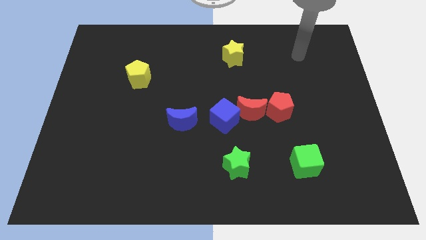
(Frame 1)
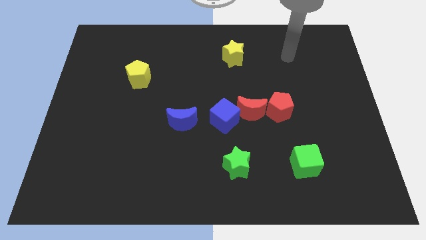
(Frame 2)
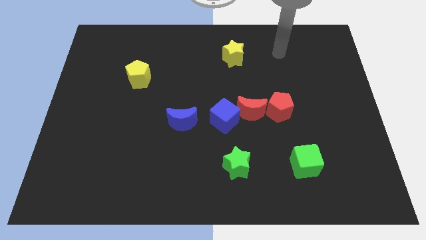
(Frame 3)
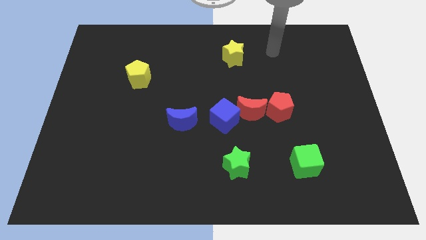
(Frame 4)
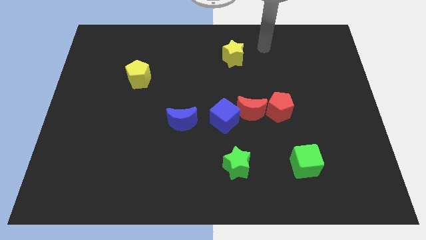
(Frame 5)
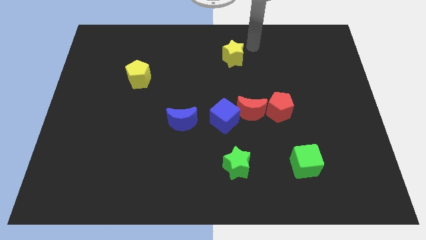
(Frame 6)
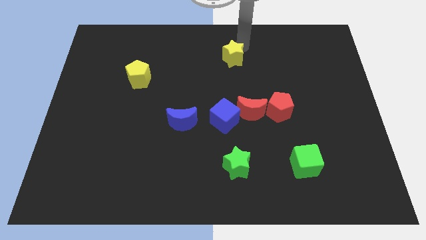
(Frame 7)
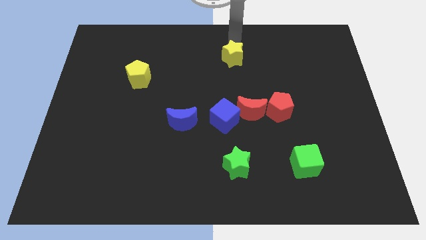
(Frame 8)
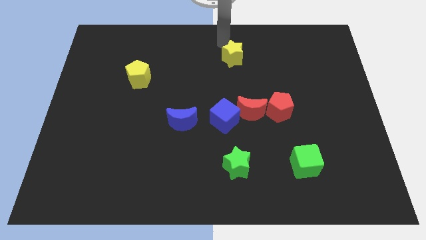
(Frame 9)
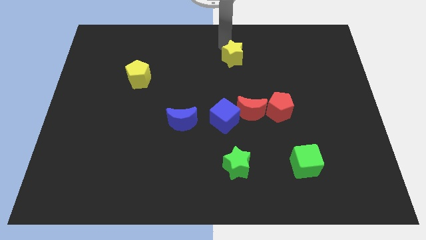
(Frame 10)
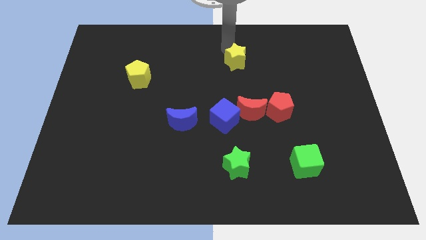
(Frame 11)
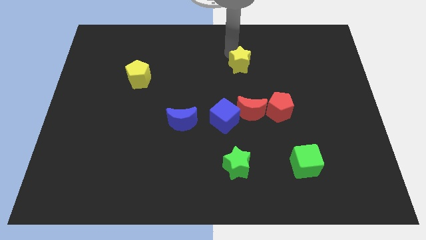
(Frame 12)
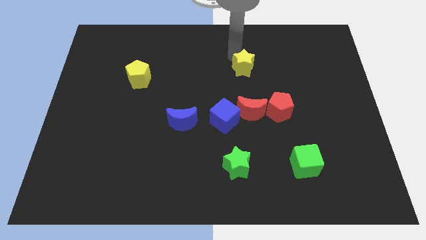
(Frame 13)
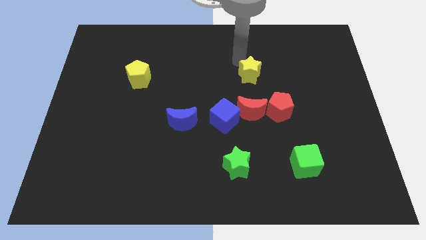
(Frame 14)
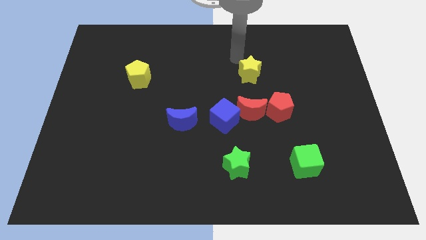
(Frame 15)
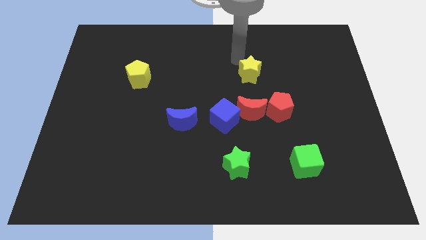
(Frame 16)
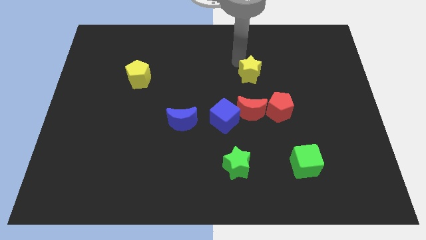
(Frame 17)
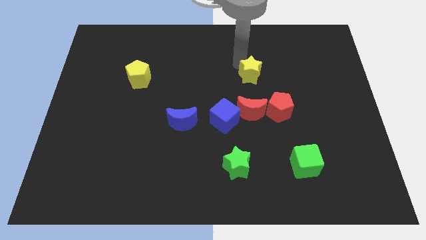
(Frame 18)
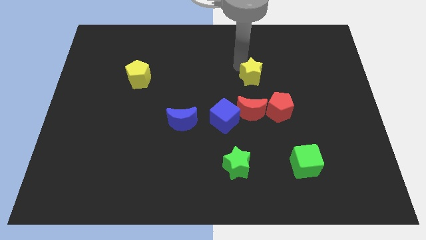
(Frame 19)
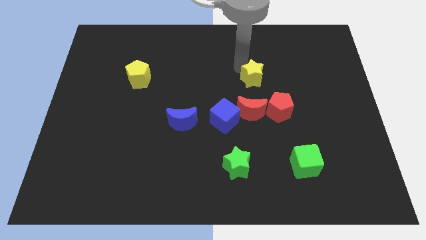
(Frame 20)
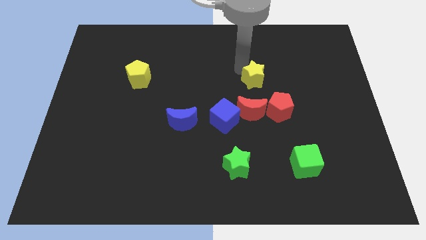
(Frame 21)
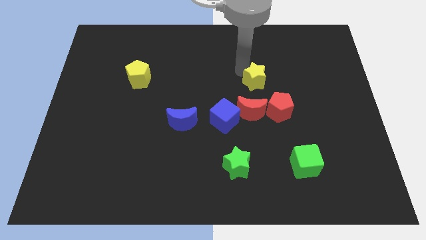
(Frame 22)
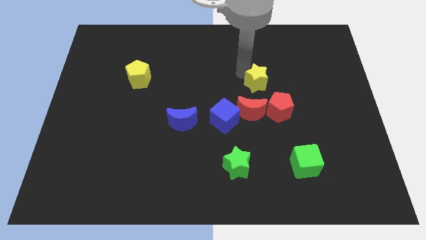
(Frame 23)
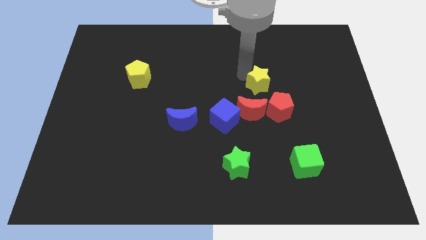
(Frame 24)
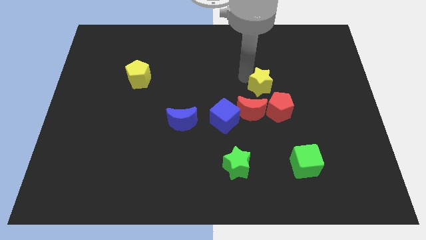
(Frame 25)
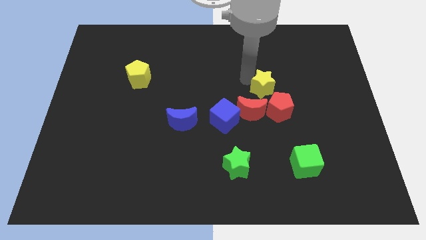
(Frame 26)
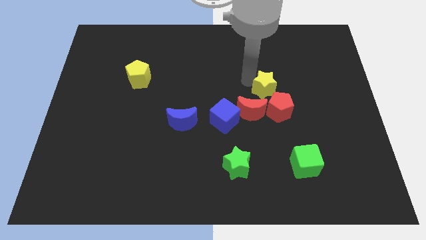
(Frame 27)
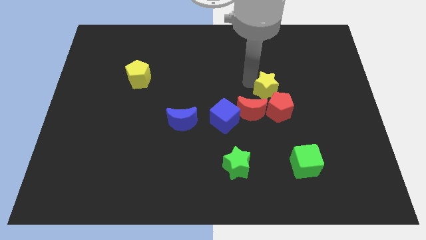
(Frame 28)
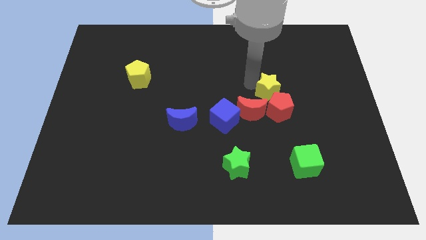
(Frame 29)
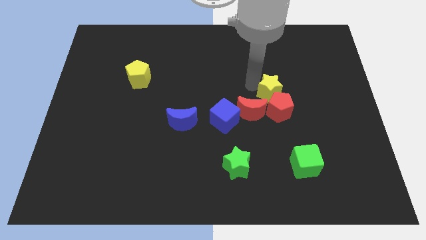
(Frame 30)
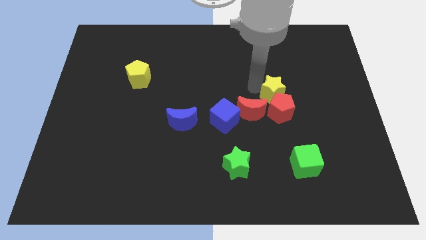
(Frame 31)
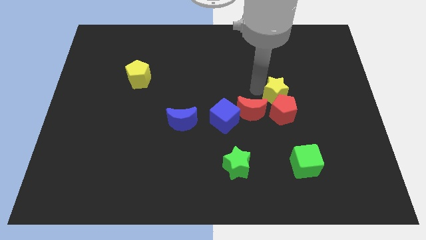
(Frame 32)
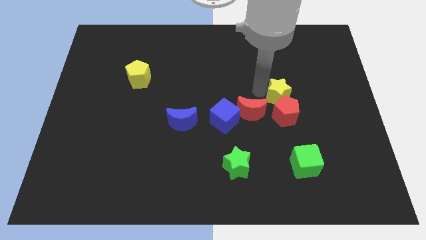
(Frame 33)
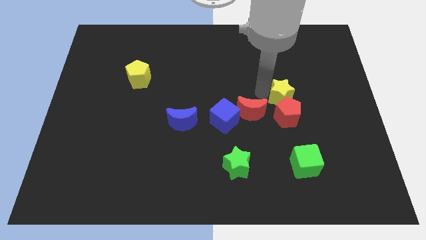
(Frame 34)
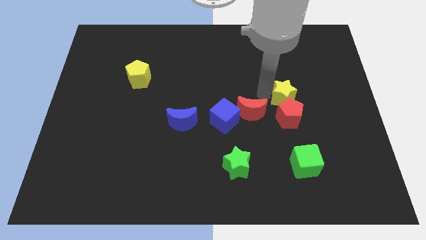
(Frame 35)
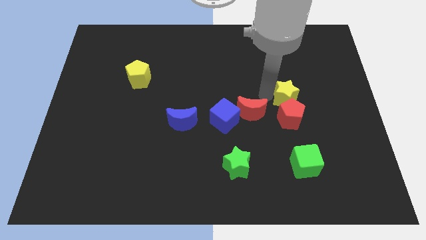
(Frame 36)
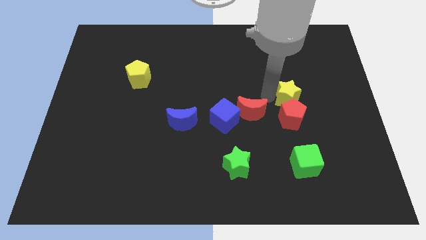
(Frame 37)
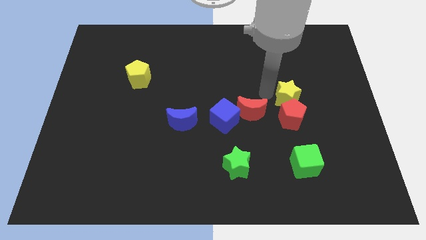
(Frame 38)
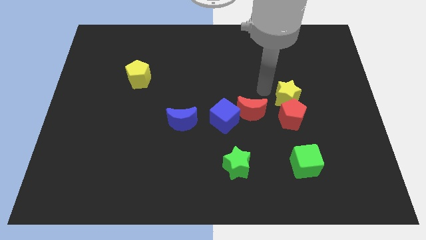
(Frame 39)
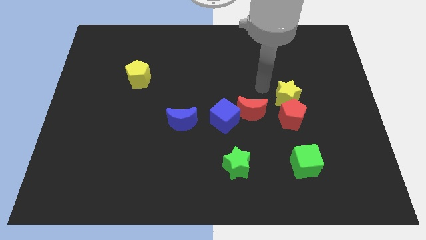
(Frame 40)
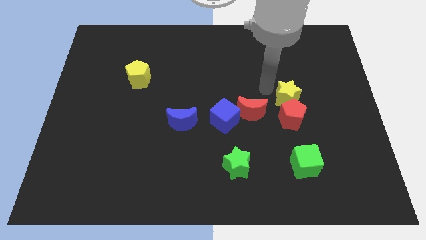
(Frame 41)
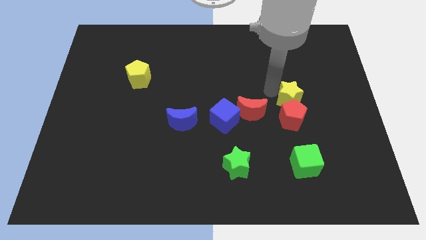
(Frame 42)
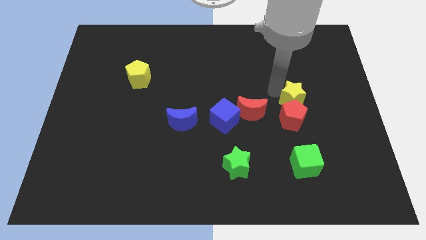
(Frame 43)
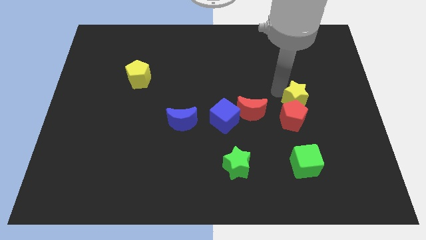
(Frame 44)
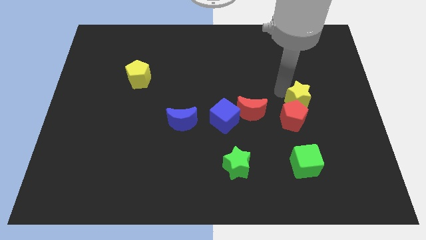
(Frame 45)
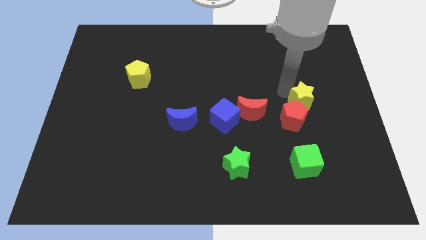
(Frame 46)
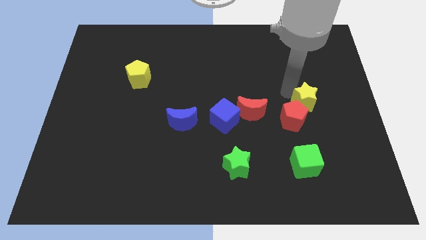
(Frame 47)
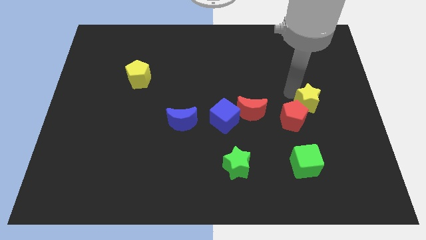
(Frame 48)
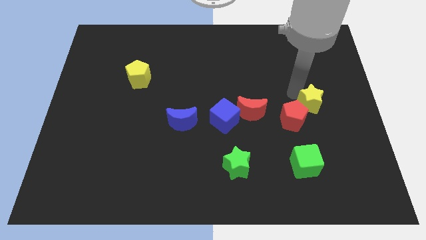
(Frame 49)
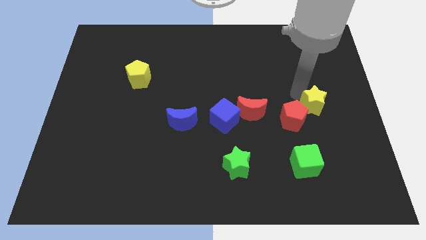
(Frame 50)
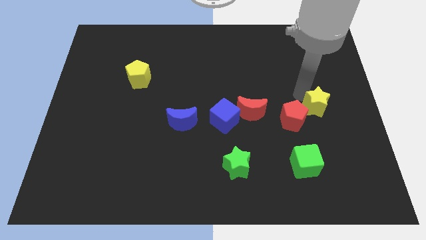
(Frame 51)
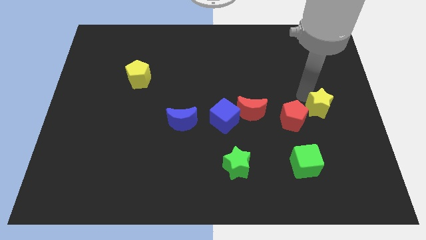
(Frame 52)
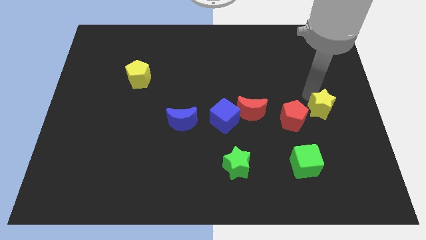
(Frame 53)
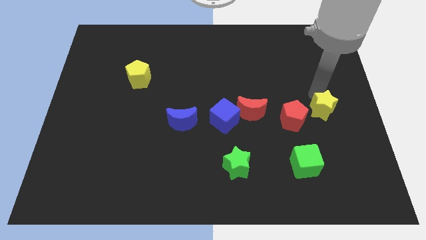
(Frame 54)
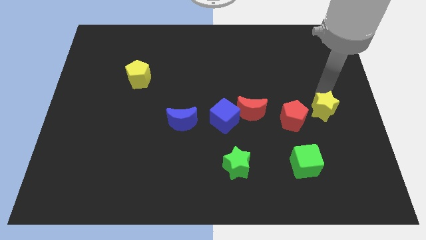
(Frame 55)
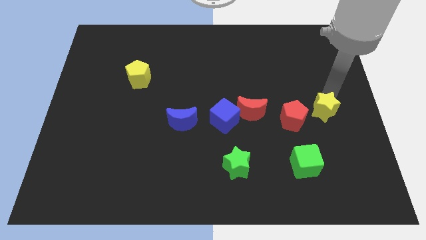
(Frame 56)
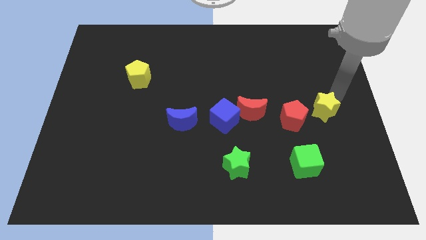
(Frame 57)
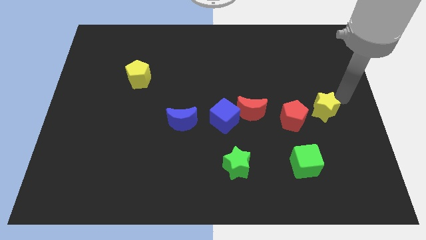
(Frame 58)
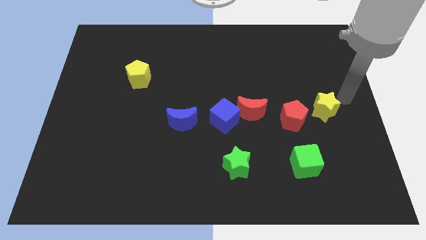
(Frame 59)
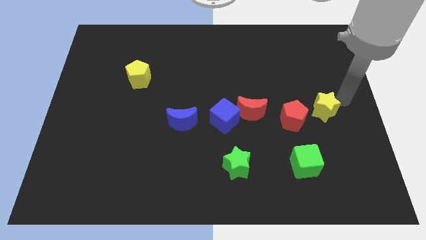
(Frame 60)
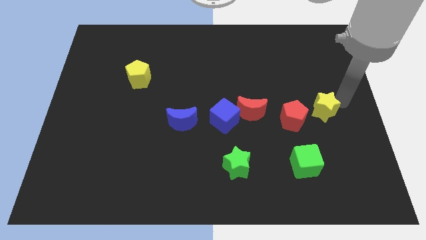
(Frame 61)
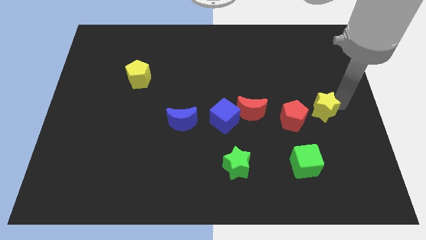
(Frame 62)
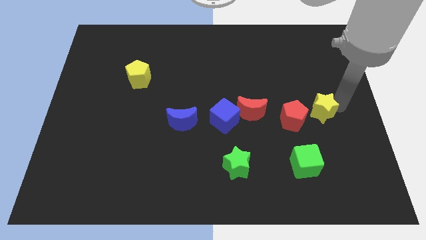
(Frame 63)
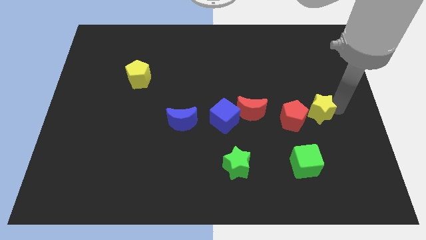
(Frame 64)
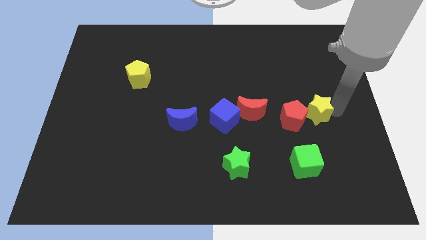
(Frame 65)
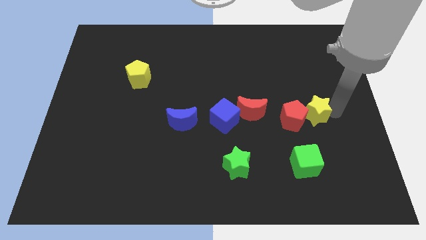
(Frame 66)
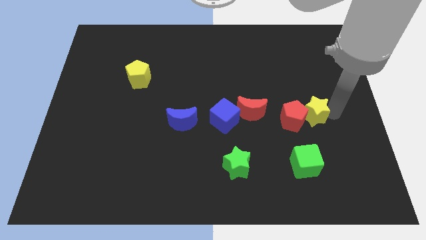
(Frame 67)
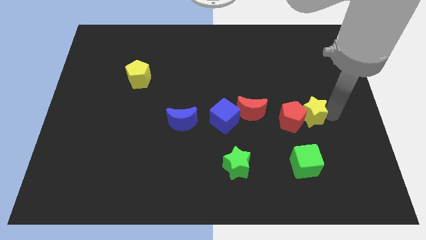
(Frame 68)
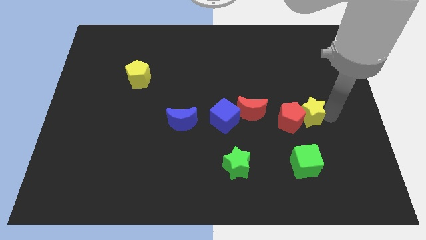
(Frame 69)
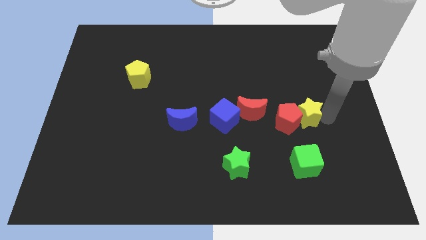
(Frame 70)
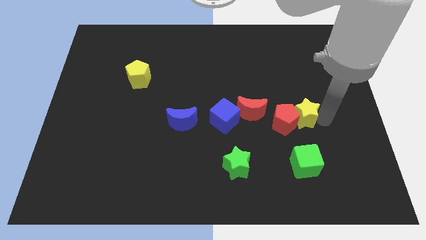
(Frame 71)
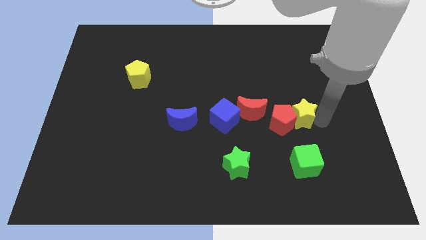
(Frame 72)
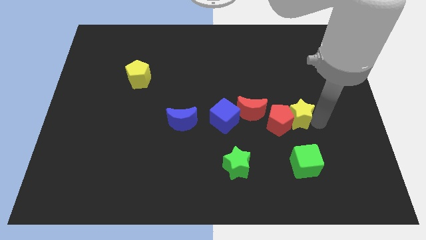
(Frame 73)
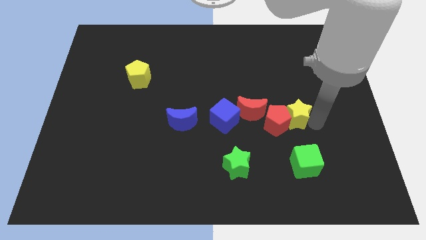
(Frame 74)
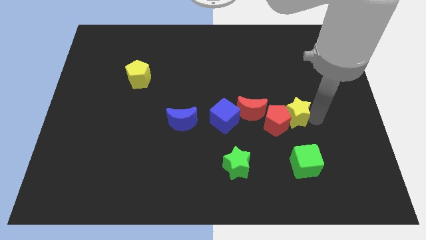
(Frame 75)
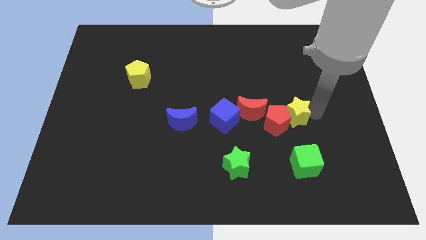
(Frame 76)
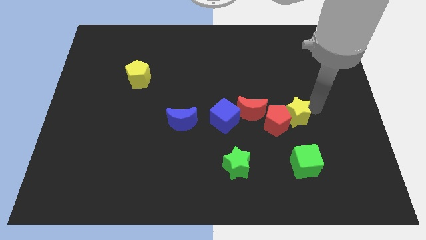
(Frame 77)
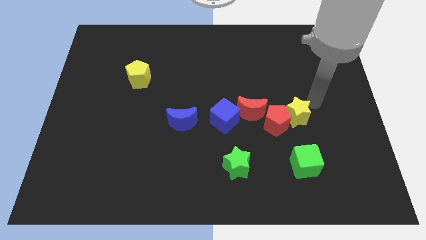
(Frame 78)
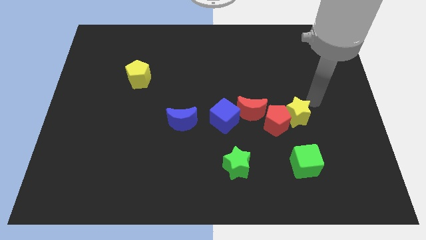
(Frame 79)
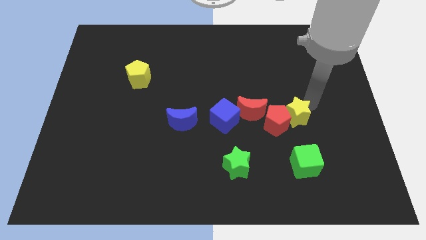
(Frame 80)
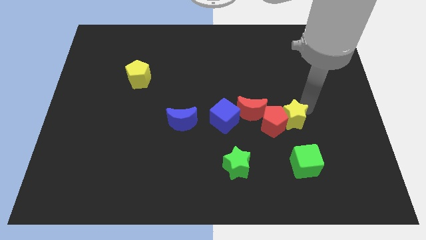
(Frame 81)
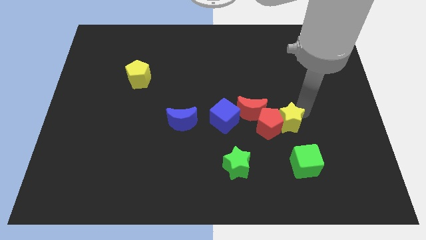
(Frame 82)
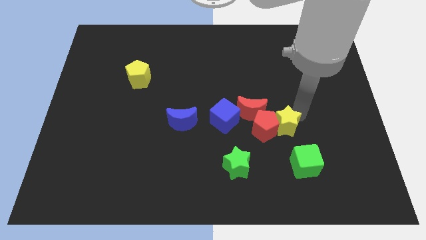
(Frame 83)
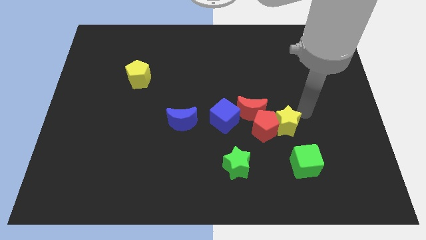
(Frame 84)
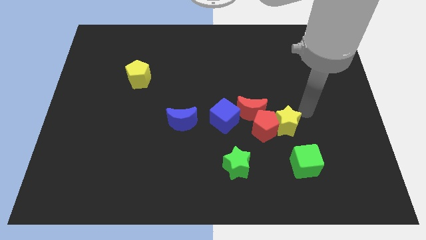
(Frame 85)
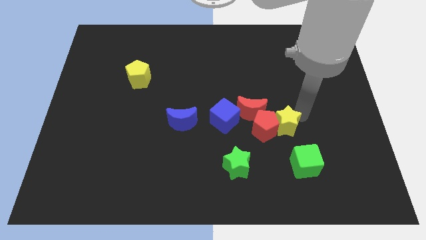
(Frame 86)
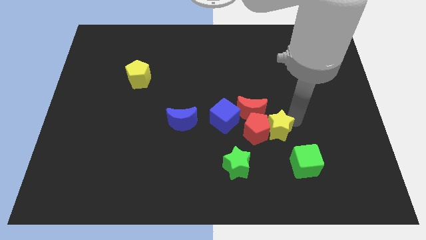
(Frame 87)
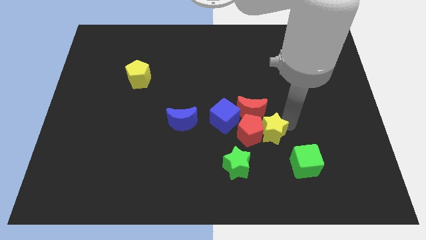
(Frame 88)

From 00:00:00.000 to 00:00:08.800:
put the yellow star diagonally up and to the right of the green star
